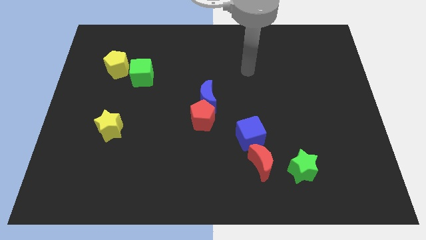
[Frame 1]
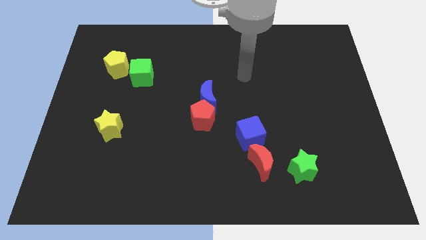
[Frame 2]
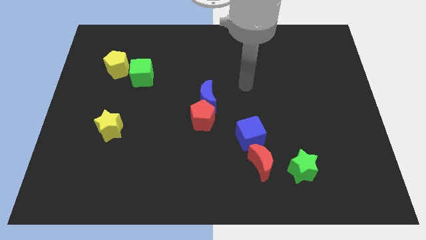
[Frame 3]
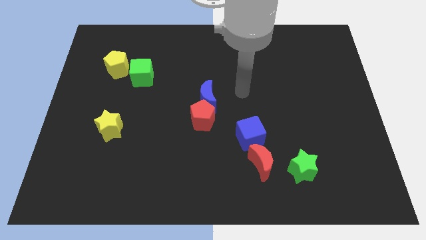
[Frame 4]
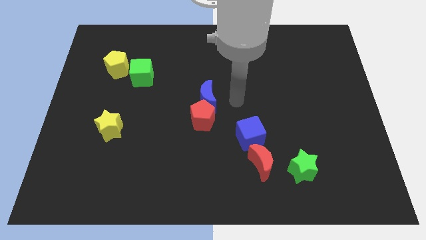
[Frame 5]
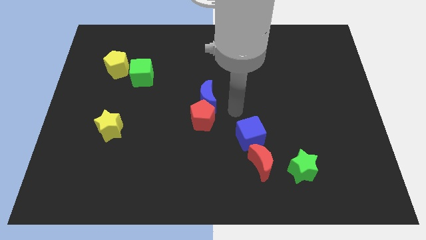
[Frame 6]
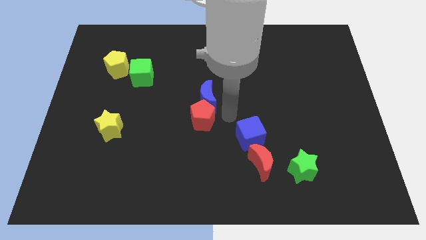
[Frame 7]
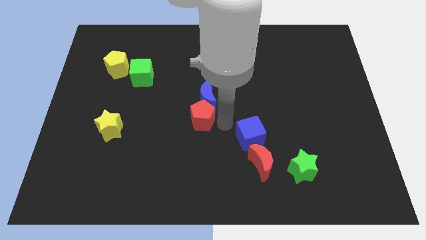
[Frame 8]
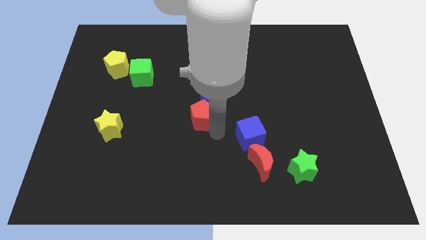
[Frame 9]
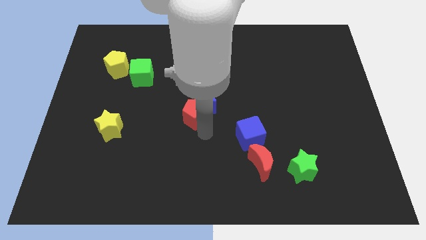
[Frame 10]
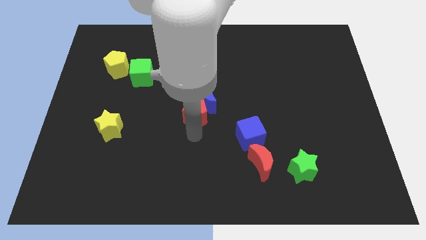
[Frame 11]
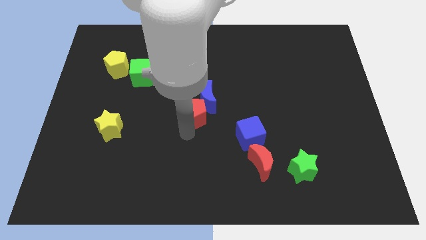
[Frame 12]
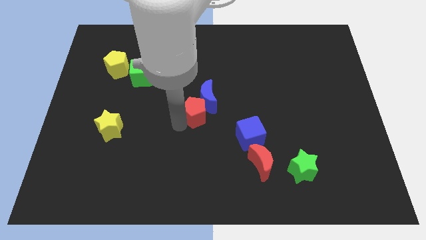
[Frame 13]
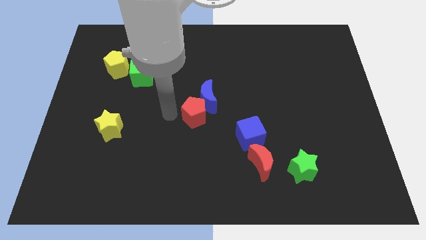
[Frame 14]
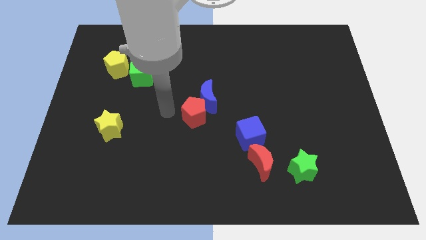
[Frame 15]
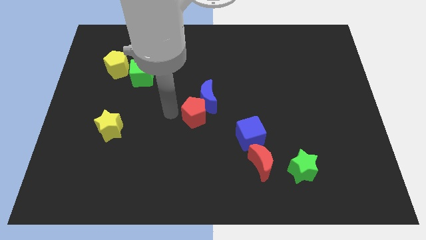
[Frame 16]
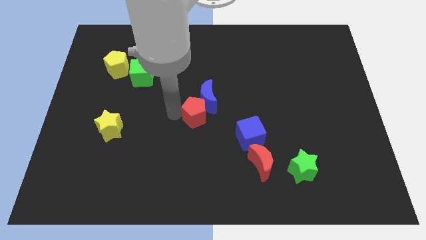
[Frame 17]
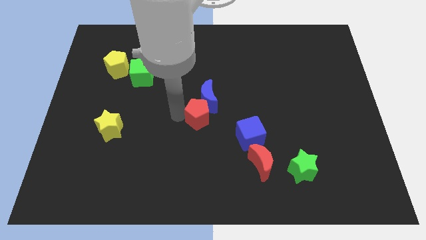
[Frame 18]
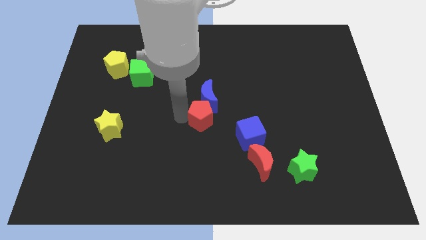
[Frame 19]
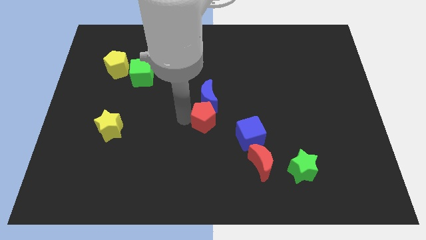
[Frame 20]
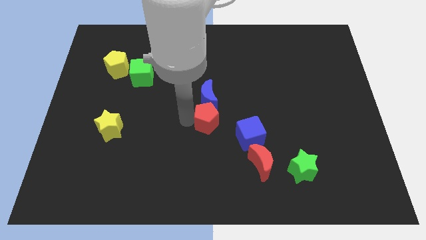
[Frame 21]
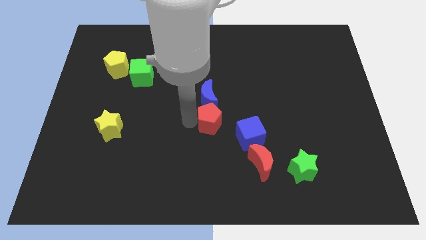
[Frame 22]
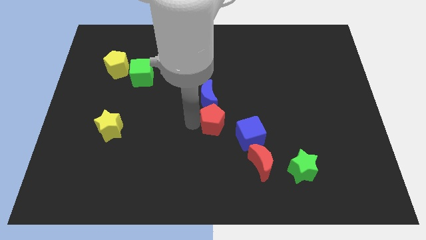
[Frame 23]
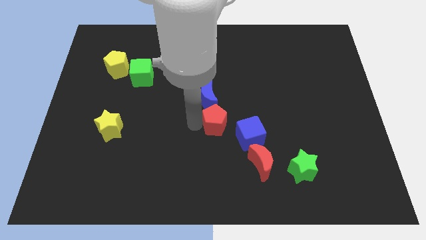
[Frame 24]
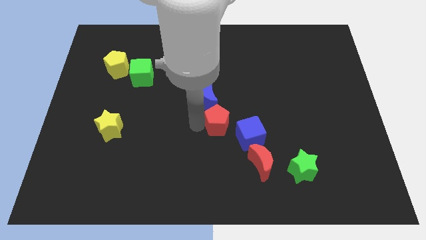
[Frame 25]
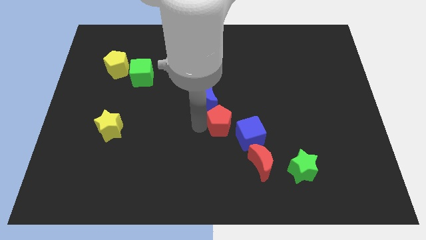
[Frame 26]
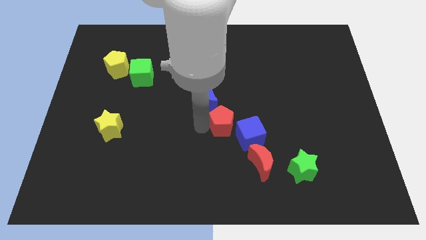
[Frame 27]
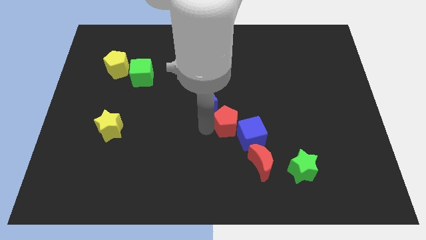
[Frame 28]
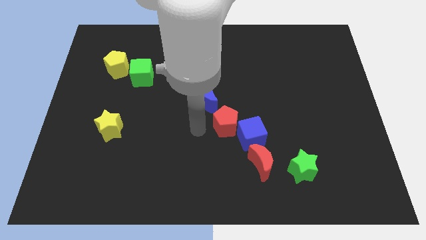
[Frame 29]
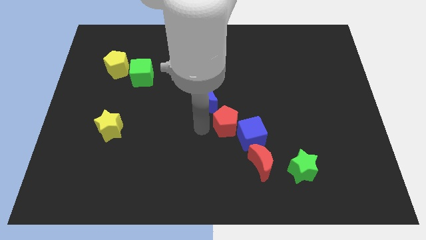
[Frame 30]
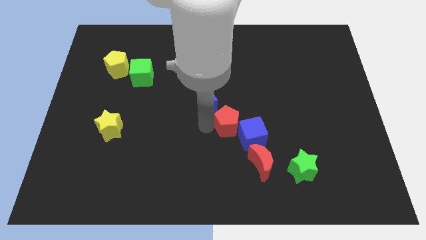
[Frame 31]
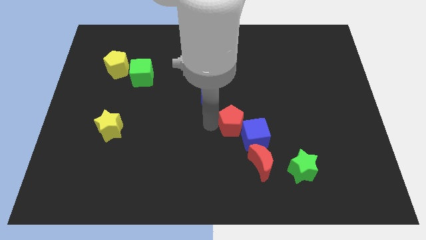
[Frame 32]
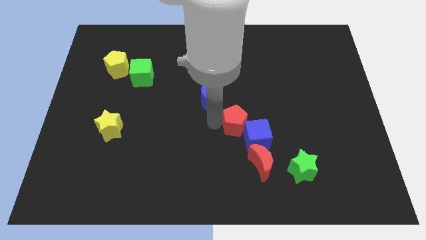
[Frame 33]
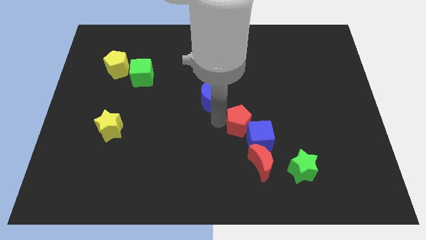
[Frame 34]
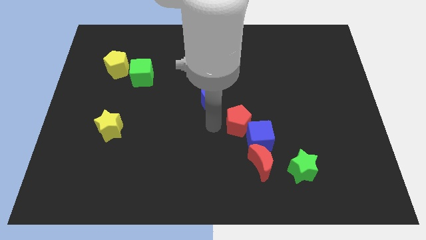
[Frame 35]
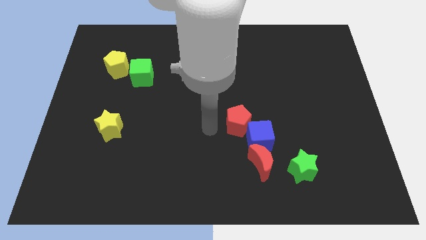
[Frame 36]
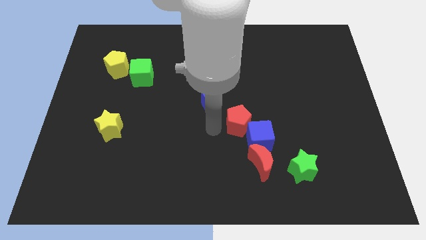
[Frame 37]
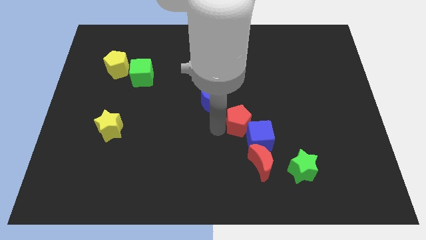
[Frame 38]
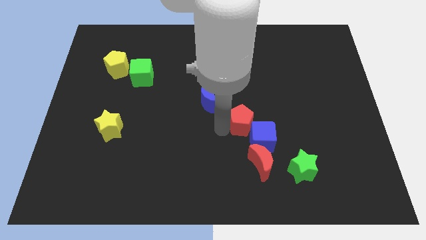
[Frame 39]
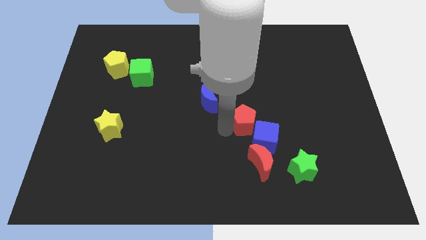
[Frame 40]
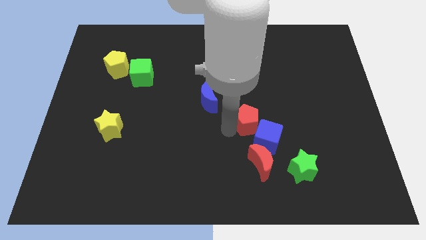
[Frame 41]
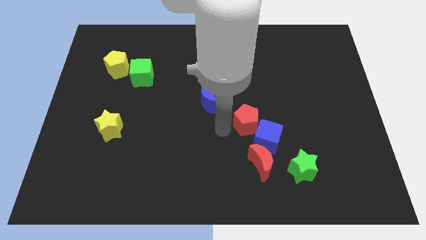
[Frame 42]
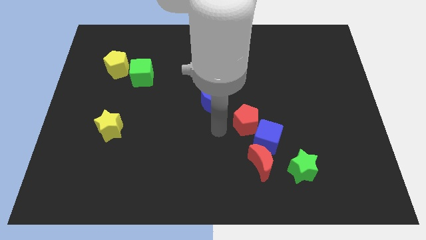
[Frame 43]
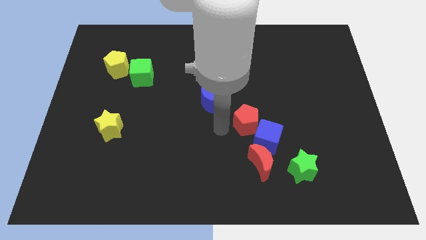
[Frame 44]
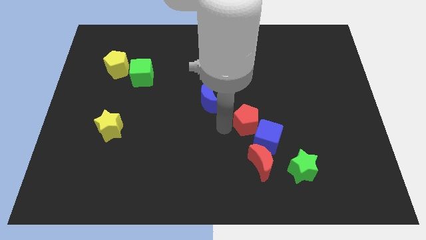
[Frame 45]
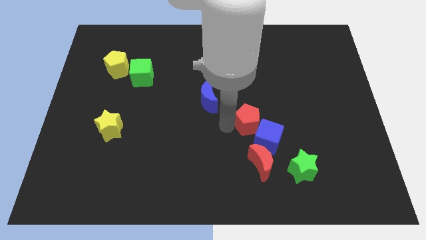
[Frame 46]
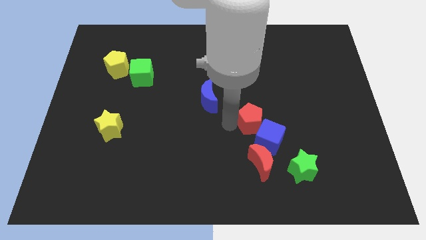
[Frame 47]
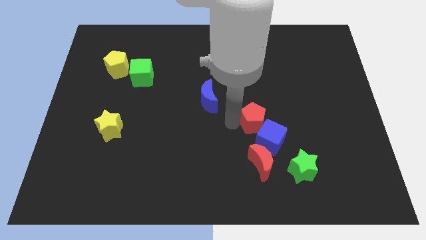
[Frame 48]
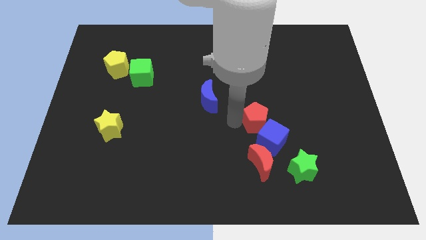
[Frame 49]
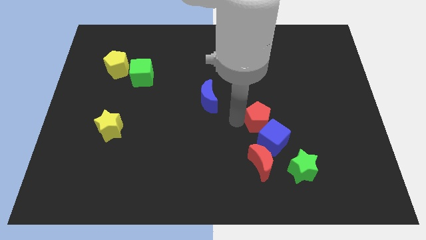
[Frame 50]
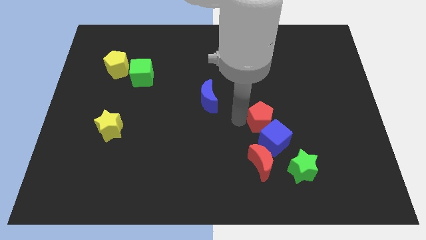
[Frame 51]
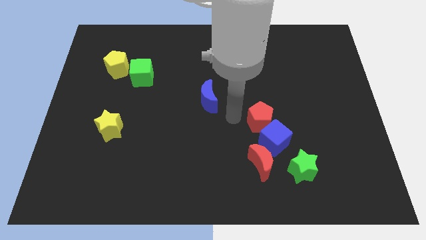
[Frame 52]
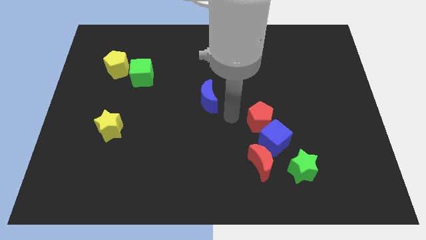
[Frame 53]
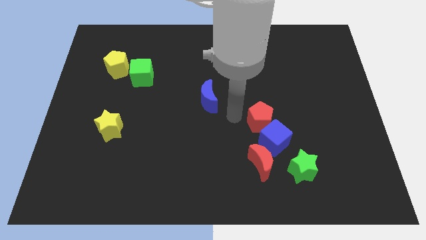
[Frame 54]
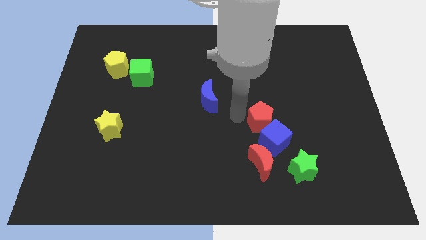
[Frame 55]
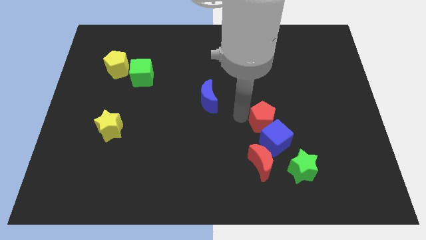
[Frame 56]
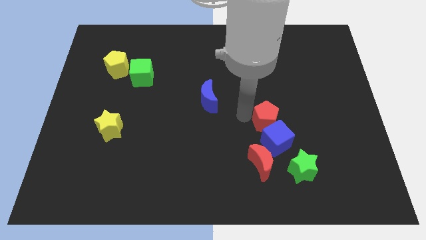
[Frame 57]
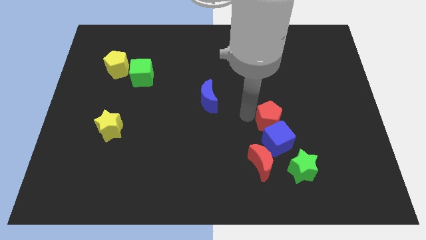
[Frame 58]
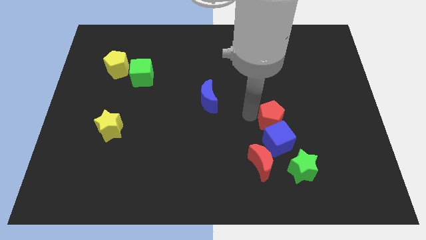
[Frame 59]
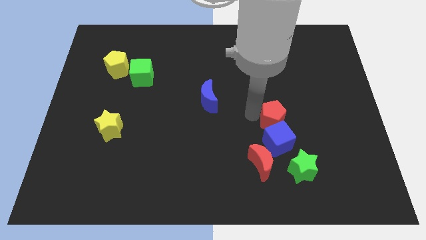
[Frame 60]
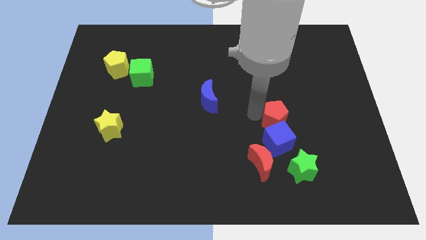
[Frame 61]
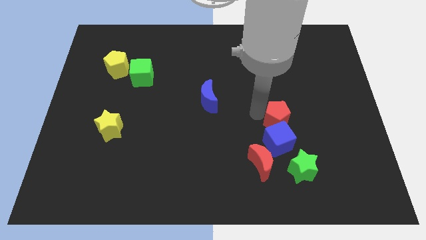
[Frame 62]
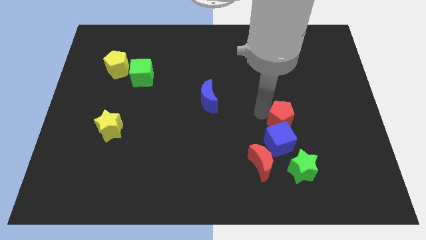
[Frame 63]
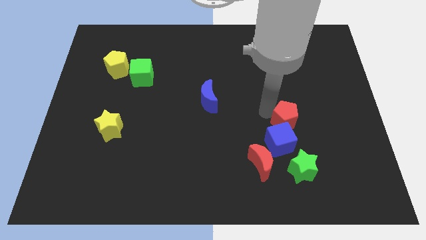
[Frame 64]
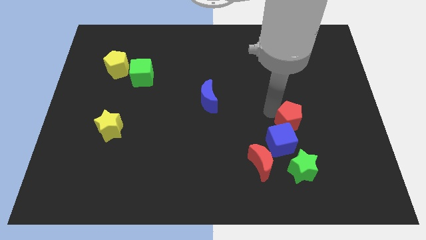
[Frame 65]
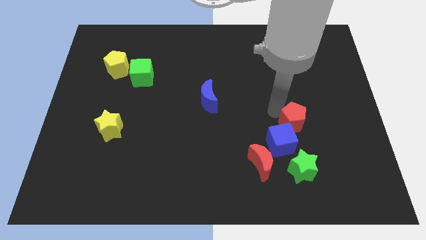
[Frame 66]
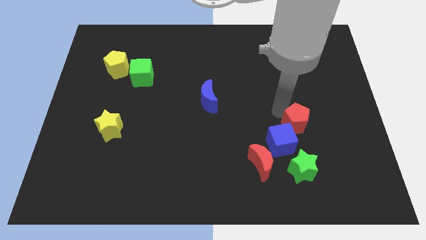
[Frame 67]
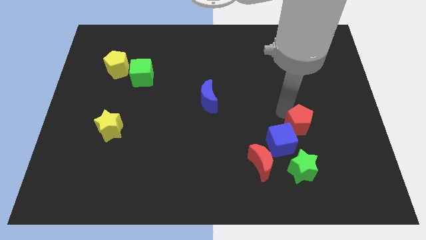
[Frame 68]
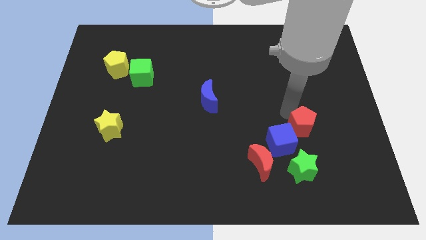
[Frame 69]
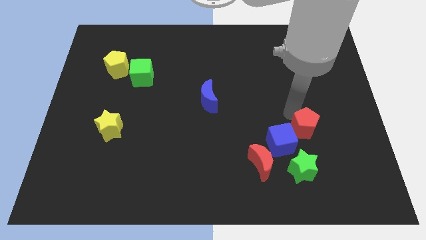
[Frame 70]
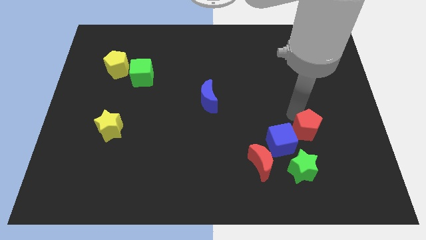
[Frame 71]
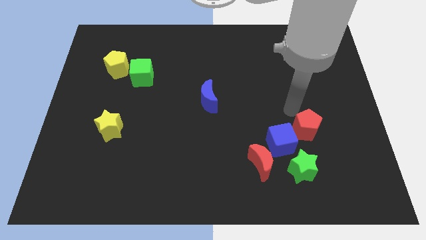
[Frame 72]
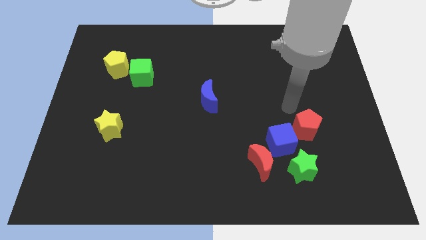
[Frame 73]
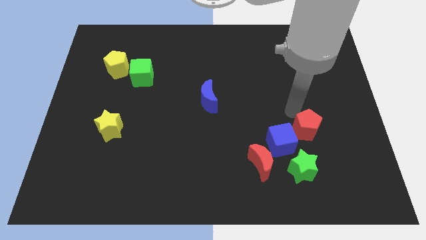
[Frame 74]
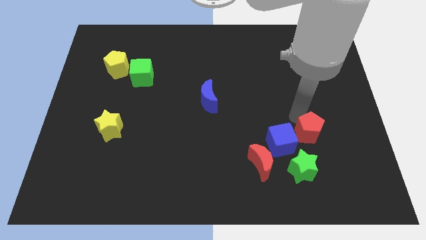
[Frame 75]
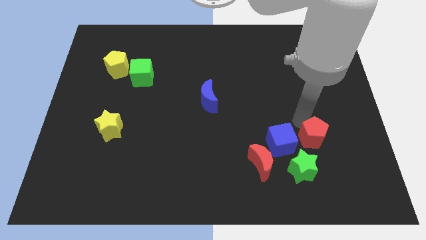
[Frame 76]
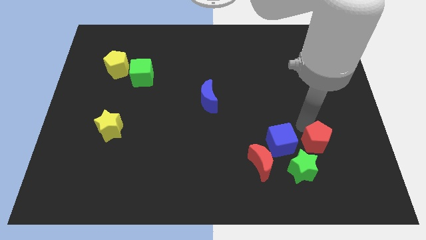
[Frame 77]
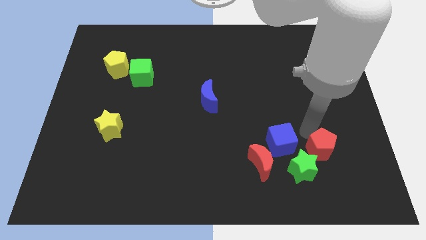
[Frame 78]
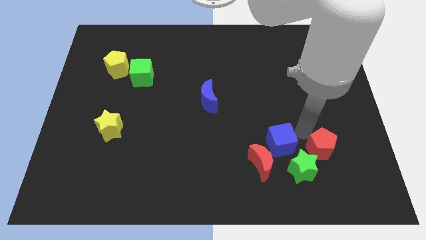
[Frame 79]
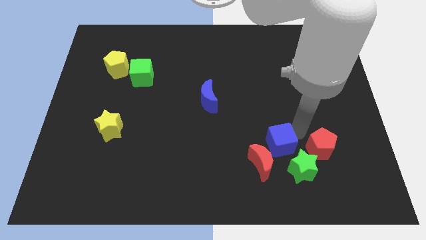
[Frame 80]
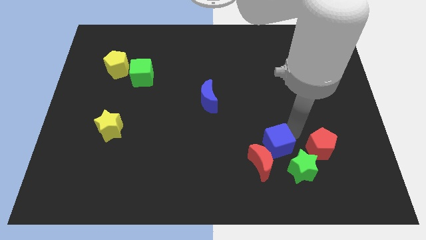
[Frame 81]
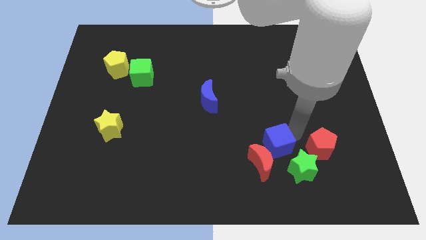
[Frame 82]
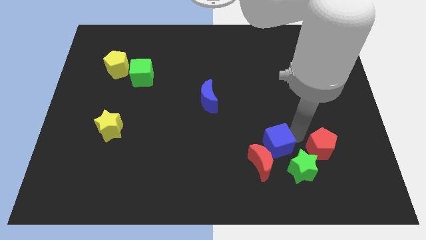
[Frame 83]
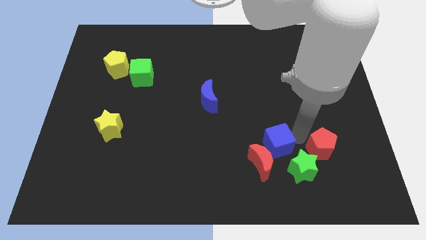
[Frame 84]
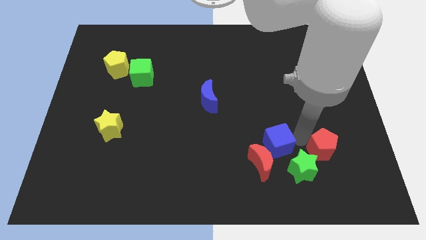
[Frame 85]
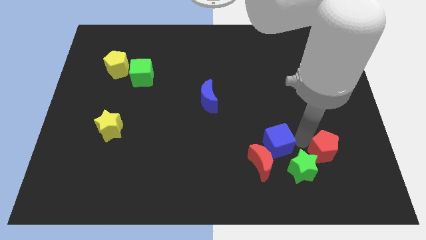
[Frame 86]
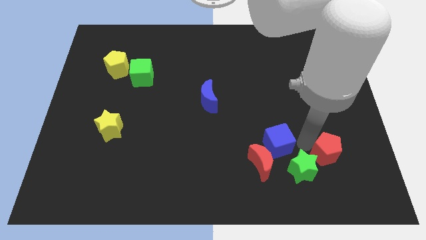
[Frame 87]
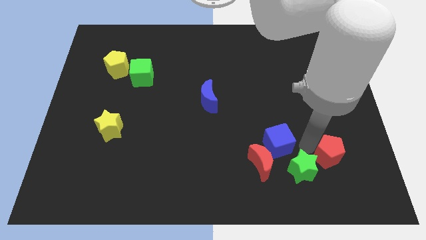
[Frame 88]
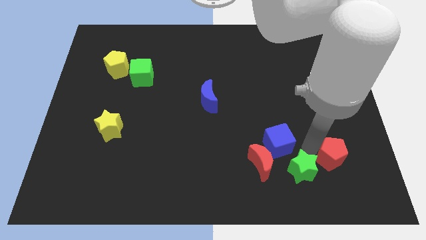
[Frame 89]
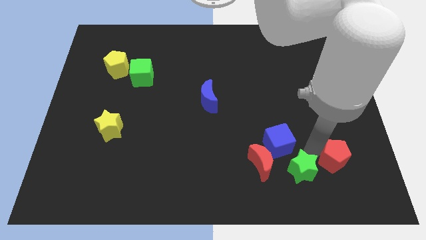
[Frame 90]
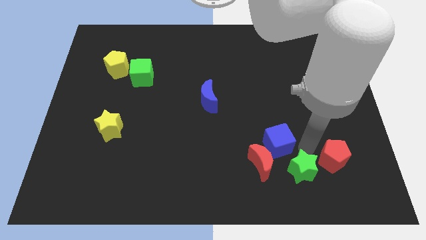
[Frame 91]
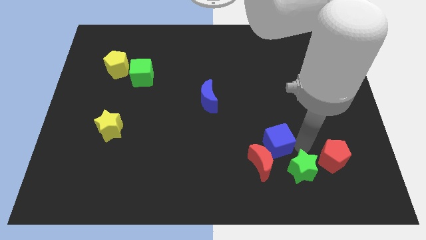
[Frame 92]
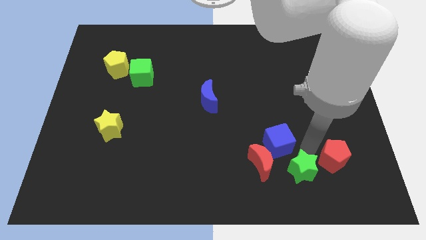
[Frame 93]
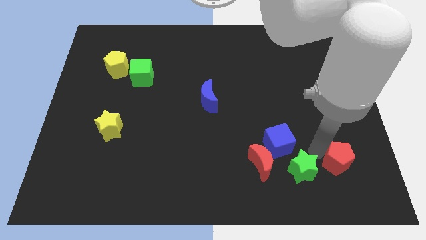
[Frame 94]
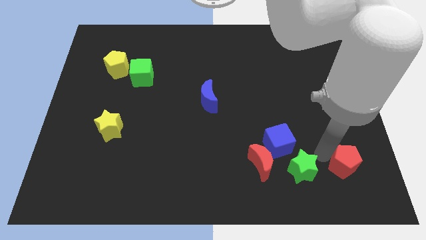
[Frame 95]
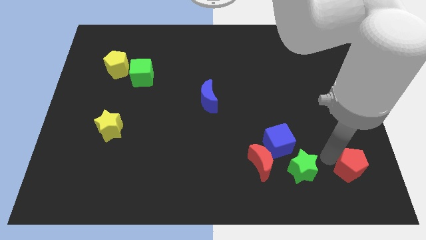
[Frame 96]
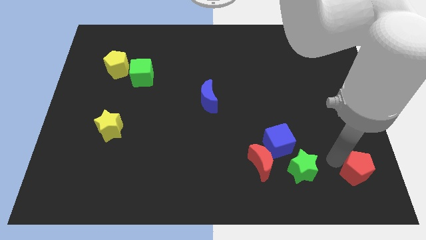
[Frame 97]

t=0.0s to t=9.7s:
push the red pentagon to the lower right corner
